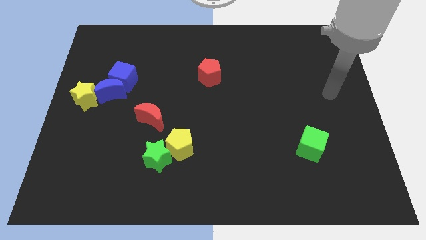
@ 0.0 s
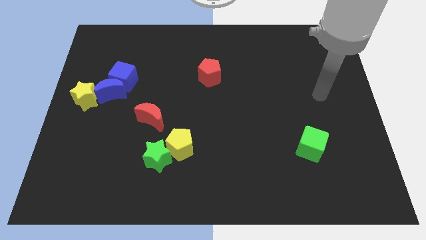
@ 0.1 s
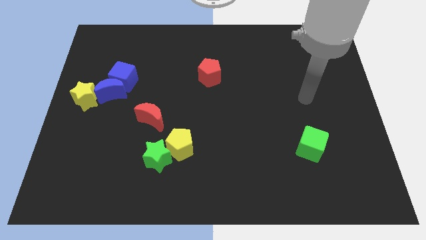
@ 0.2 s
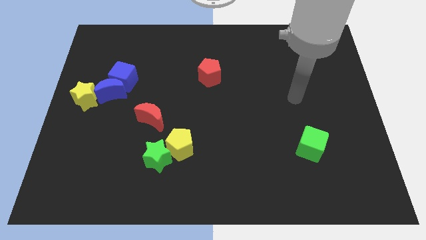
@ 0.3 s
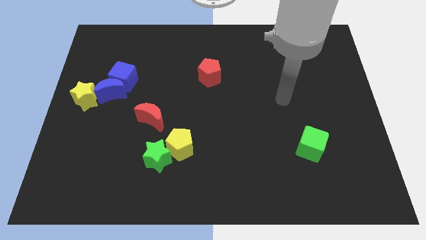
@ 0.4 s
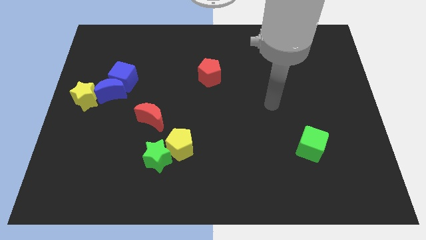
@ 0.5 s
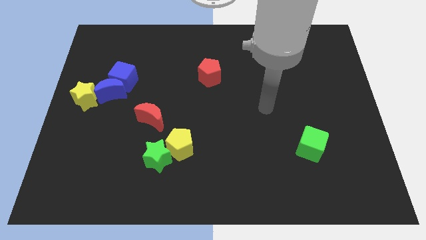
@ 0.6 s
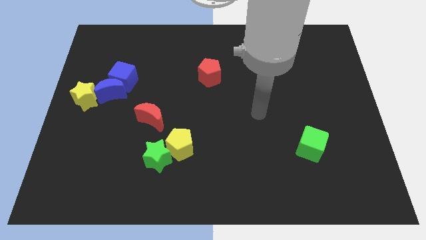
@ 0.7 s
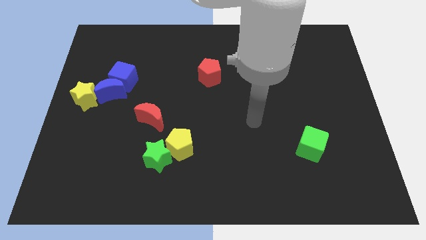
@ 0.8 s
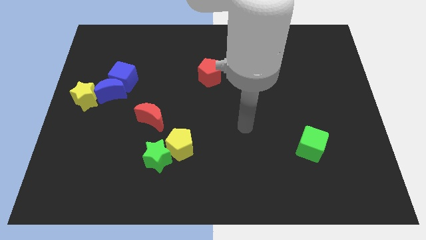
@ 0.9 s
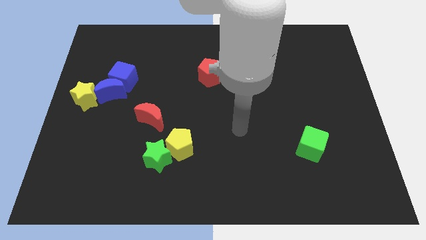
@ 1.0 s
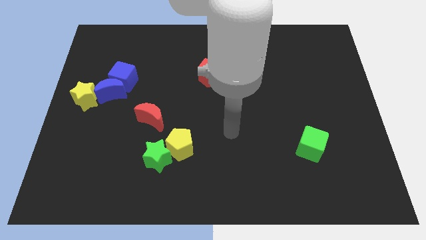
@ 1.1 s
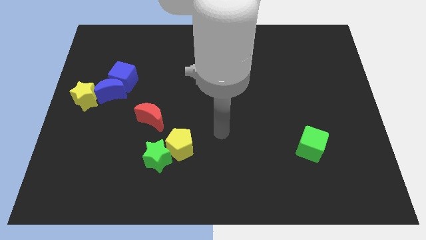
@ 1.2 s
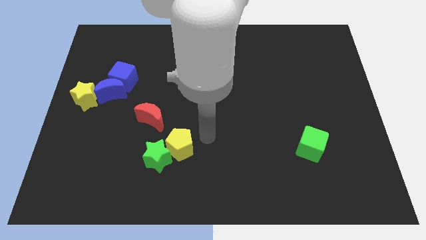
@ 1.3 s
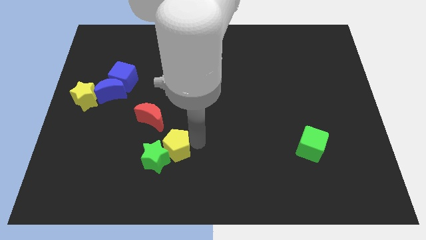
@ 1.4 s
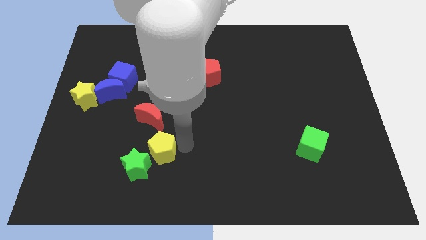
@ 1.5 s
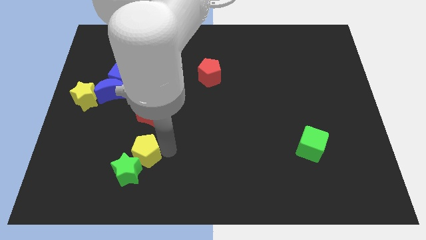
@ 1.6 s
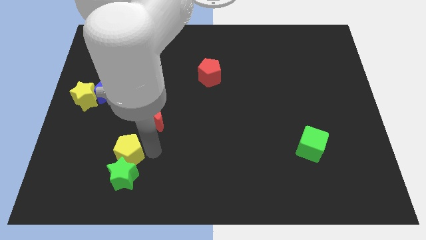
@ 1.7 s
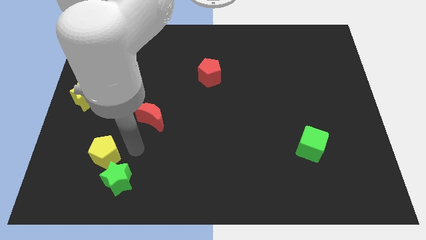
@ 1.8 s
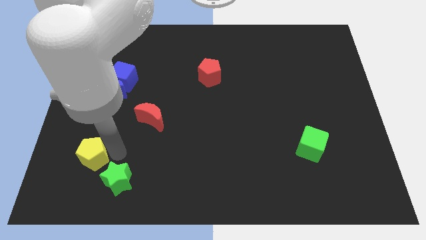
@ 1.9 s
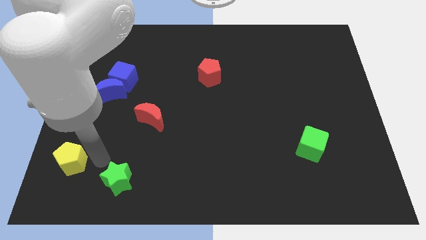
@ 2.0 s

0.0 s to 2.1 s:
pull the green star apart from the yellow pentagon

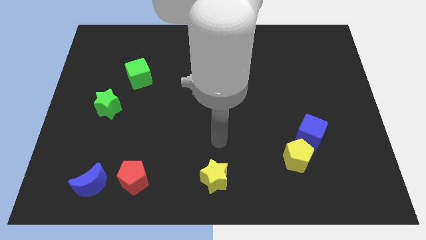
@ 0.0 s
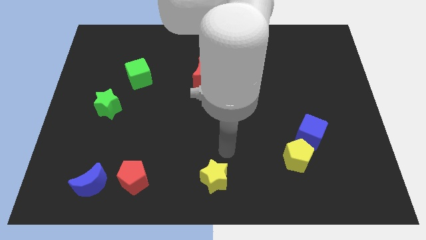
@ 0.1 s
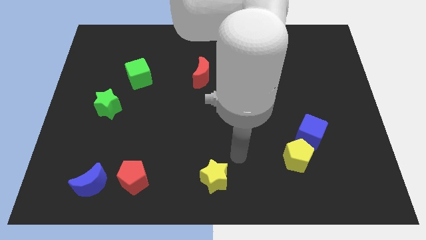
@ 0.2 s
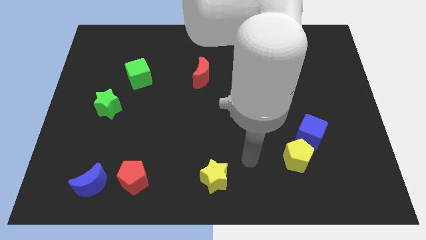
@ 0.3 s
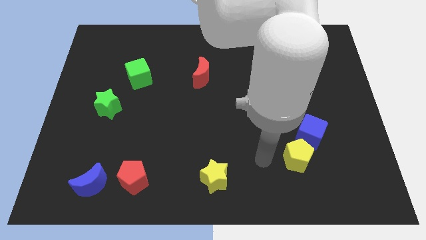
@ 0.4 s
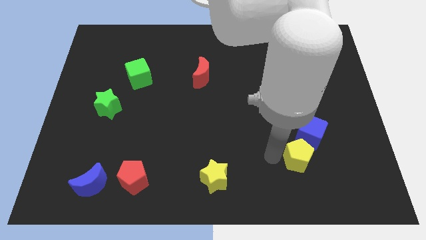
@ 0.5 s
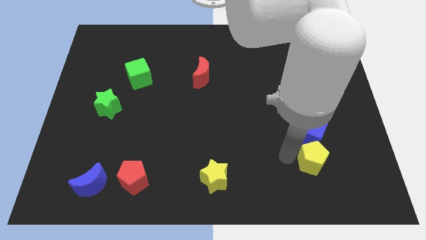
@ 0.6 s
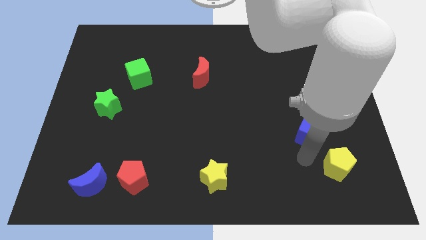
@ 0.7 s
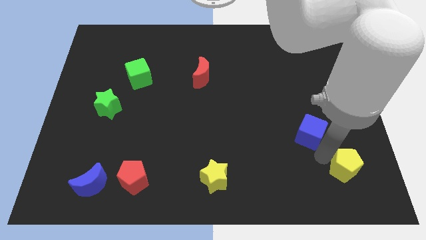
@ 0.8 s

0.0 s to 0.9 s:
move the blue cube away from the yellow pentagon

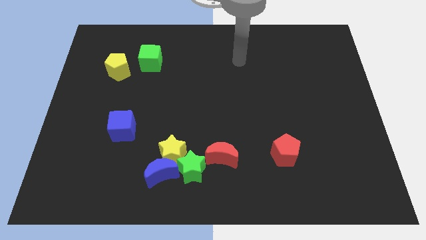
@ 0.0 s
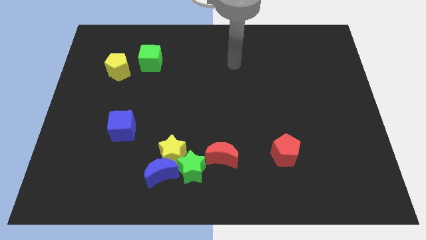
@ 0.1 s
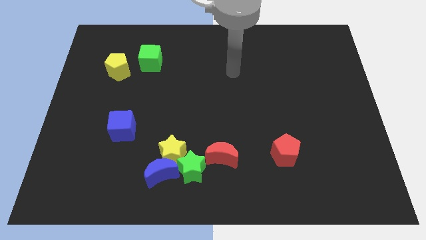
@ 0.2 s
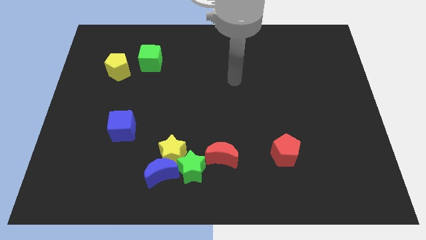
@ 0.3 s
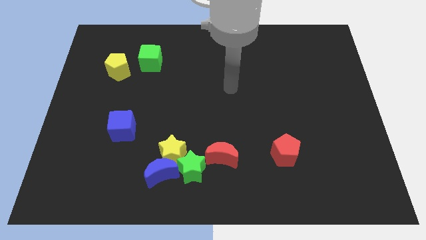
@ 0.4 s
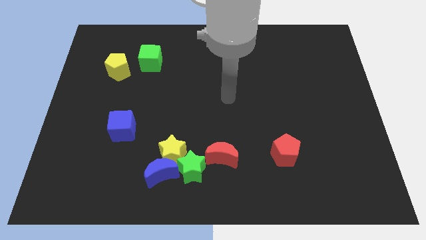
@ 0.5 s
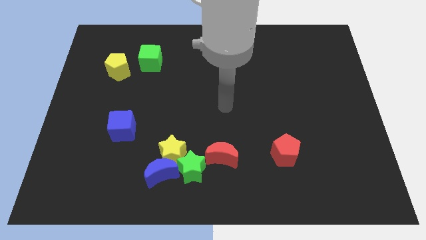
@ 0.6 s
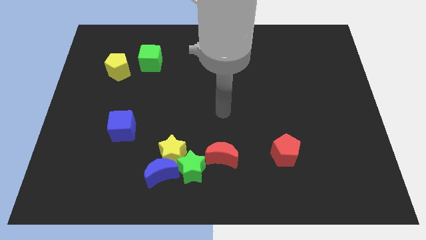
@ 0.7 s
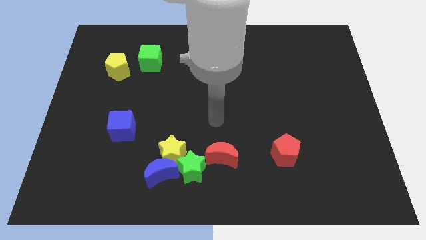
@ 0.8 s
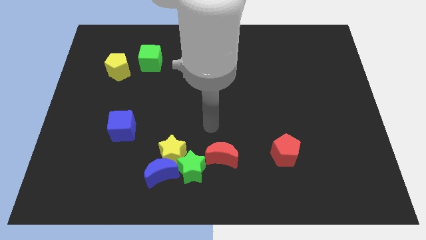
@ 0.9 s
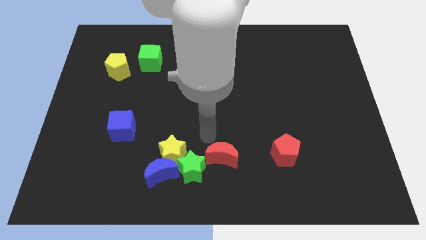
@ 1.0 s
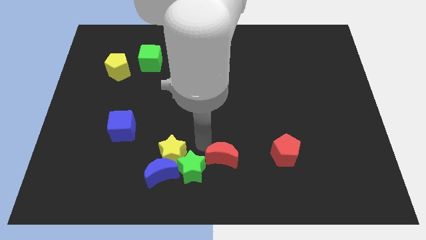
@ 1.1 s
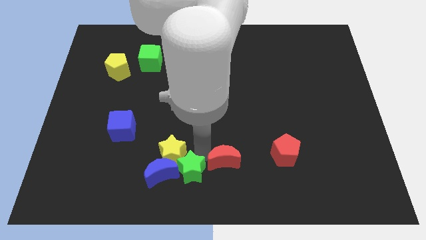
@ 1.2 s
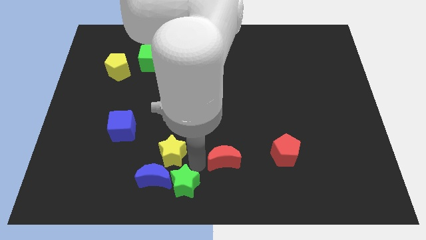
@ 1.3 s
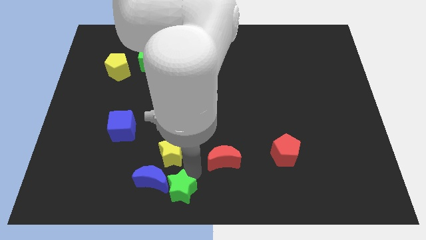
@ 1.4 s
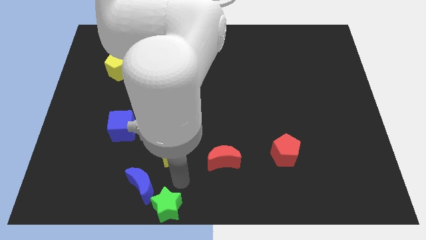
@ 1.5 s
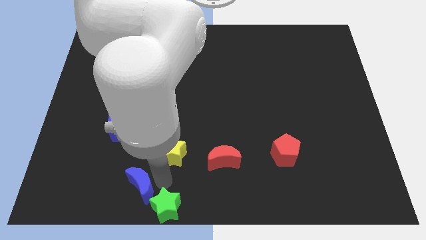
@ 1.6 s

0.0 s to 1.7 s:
separate the yellow star from the blue moon and green star

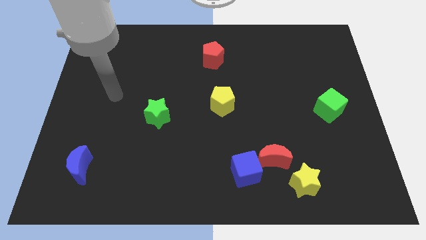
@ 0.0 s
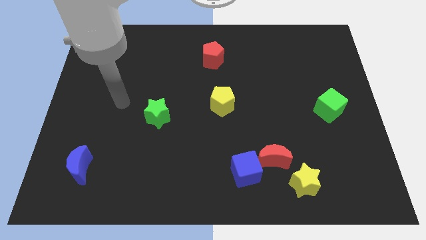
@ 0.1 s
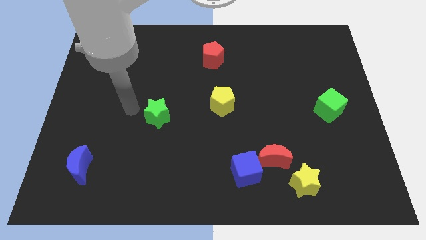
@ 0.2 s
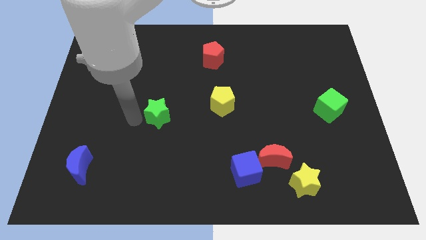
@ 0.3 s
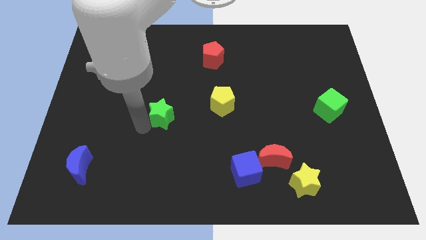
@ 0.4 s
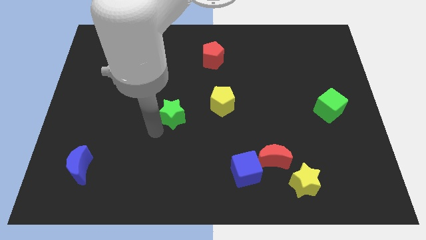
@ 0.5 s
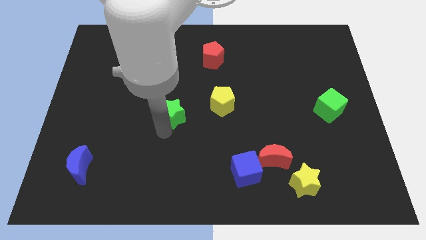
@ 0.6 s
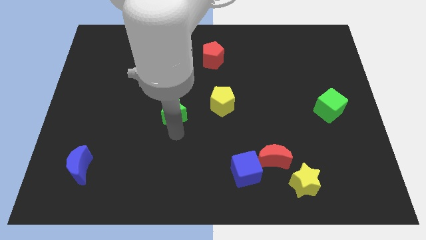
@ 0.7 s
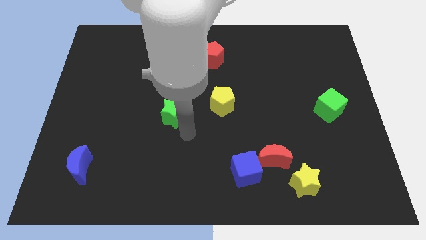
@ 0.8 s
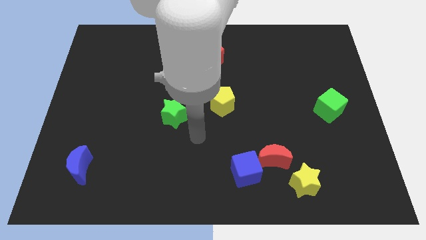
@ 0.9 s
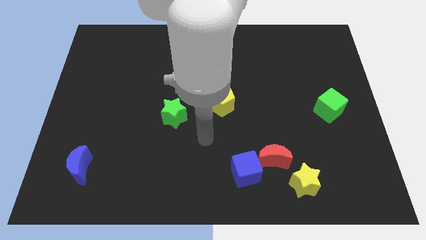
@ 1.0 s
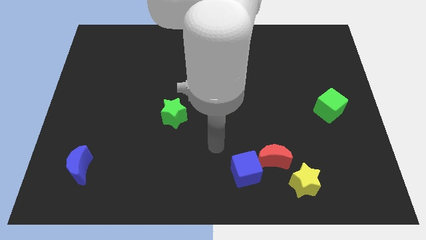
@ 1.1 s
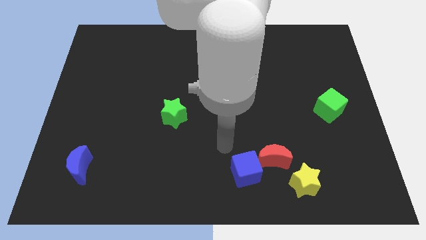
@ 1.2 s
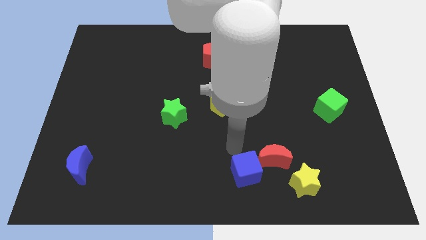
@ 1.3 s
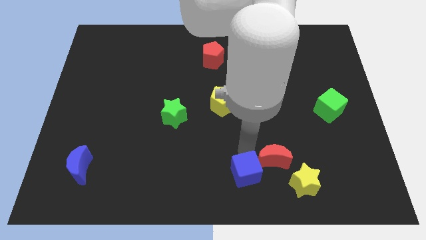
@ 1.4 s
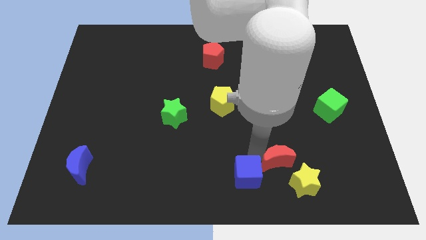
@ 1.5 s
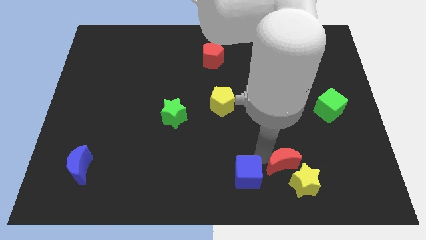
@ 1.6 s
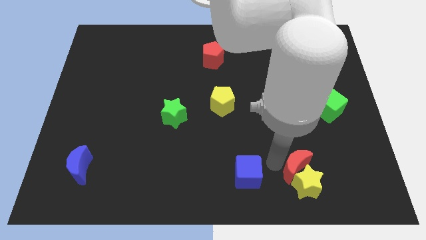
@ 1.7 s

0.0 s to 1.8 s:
move the blue cube away from the red moon

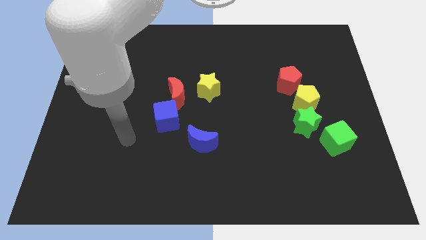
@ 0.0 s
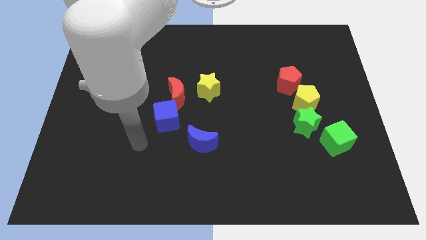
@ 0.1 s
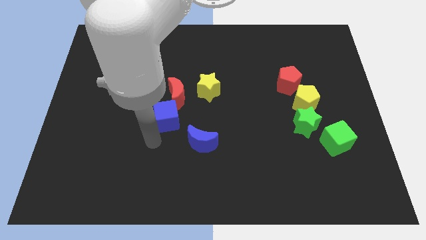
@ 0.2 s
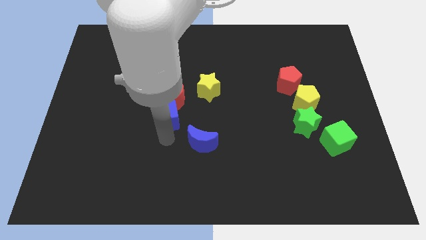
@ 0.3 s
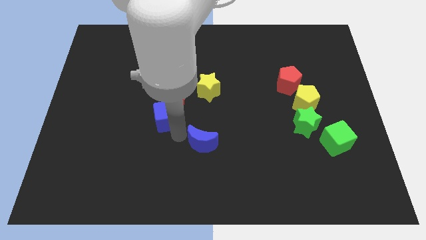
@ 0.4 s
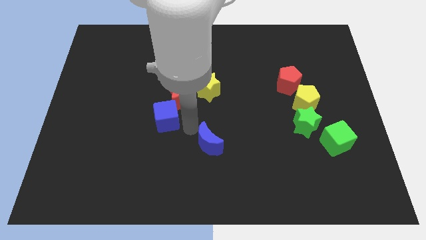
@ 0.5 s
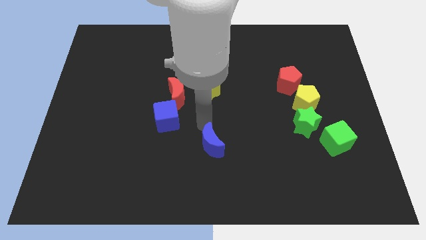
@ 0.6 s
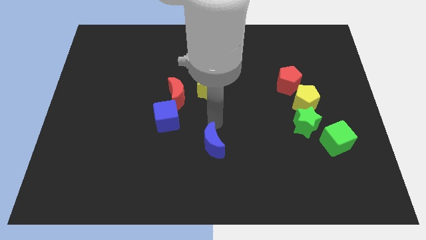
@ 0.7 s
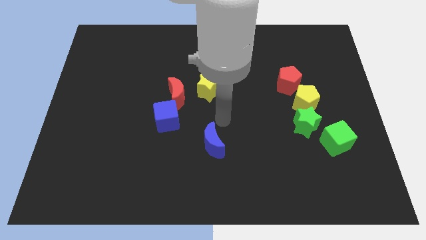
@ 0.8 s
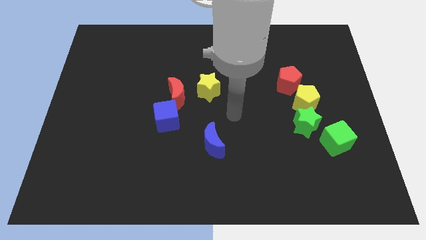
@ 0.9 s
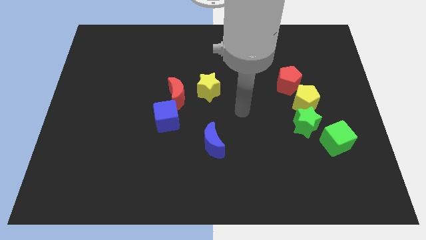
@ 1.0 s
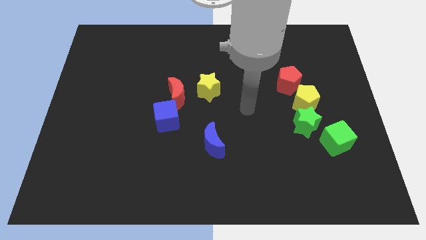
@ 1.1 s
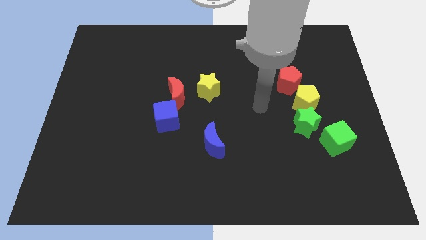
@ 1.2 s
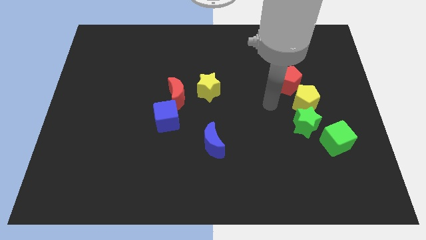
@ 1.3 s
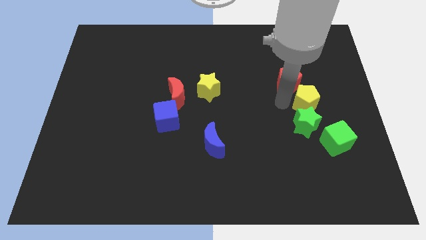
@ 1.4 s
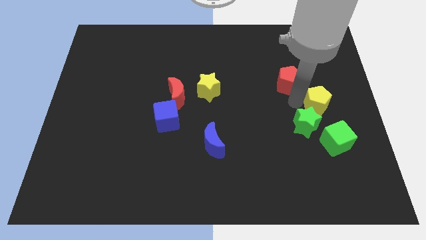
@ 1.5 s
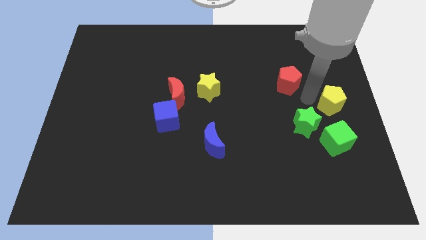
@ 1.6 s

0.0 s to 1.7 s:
pull the red pentagon apart from the yellow pentagon

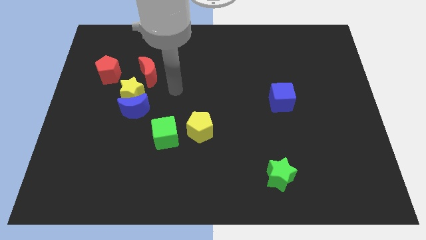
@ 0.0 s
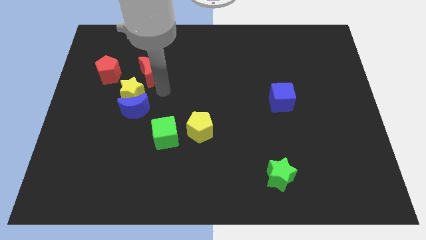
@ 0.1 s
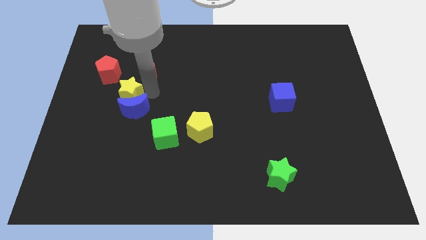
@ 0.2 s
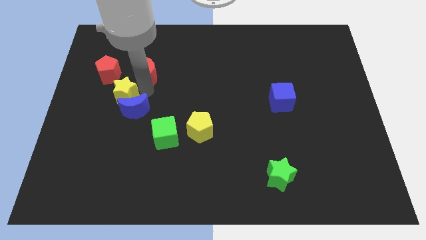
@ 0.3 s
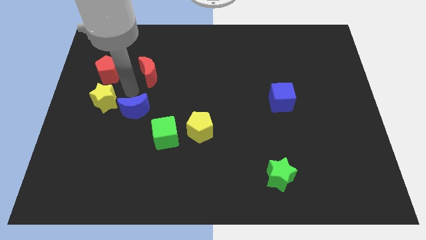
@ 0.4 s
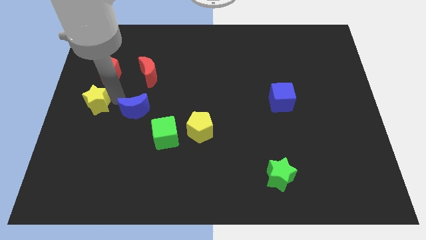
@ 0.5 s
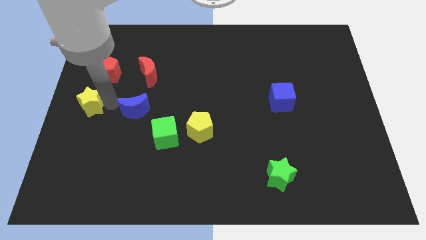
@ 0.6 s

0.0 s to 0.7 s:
move the blue moon away from the yellow star

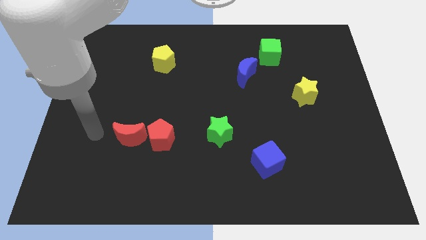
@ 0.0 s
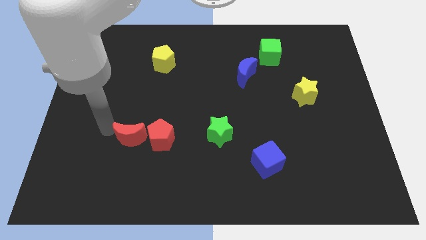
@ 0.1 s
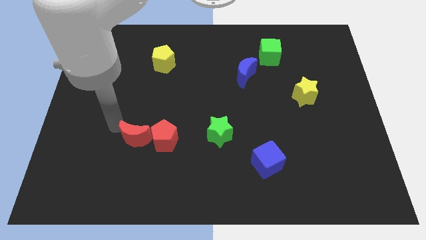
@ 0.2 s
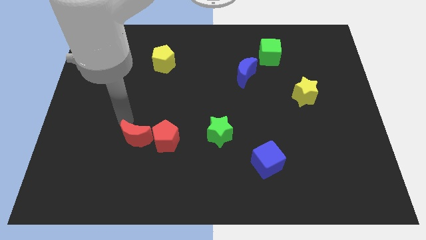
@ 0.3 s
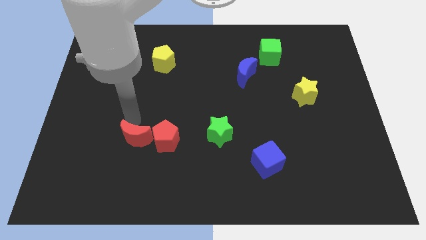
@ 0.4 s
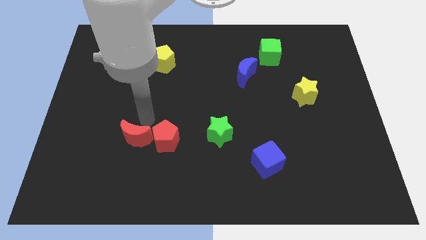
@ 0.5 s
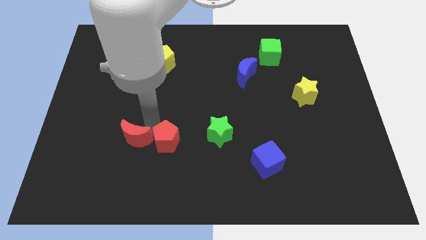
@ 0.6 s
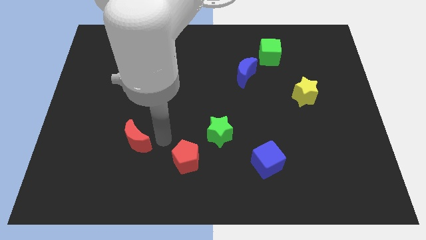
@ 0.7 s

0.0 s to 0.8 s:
pull the red moon apart from the red pentagon
